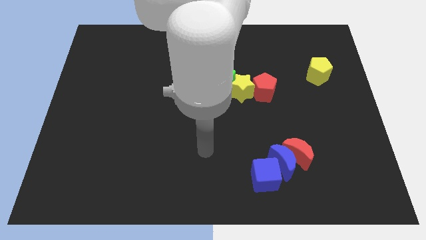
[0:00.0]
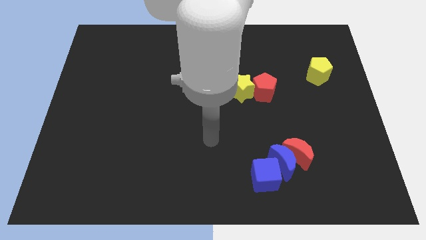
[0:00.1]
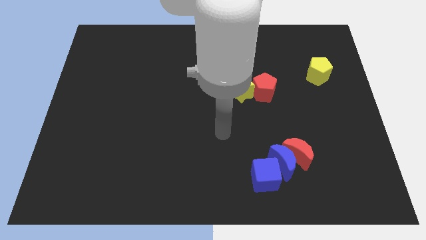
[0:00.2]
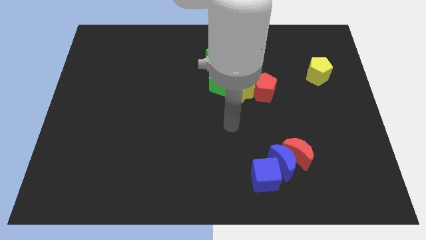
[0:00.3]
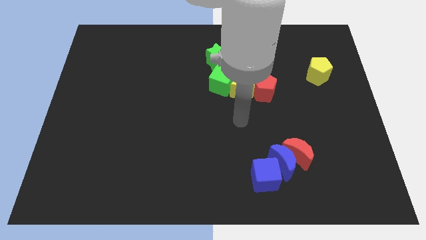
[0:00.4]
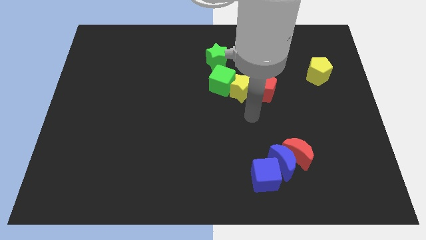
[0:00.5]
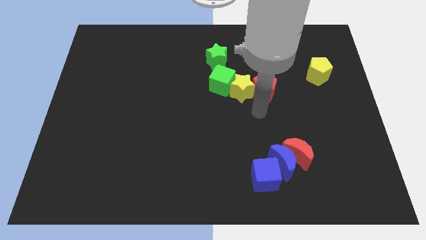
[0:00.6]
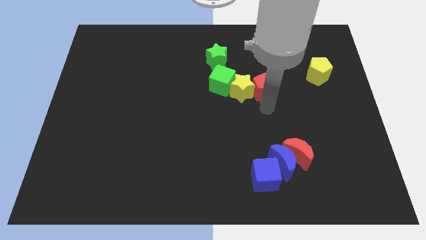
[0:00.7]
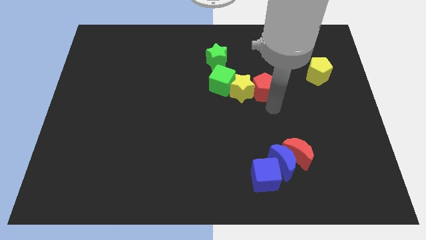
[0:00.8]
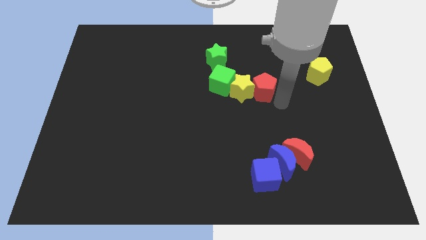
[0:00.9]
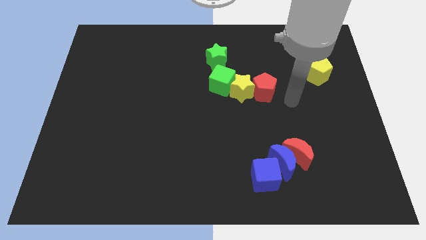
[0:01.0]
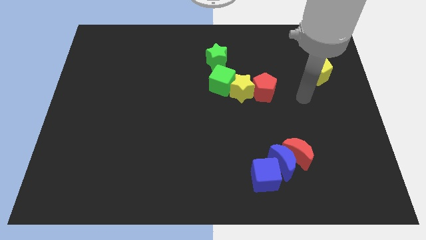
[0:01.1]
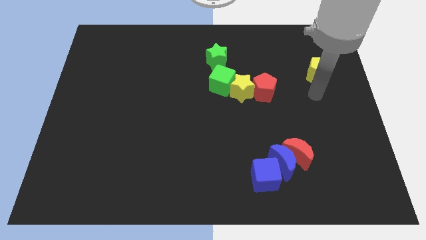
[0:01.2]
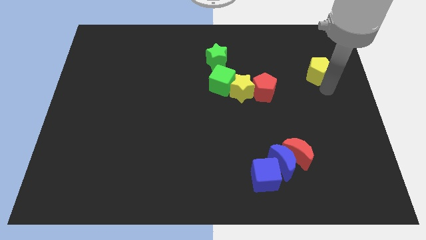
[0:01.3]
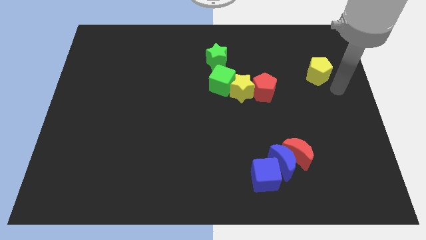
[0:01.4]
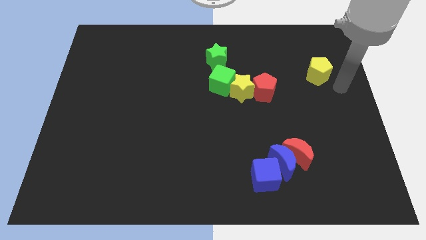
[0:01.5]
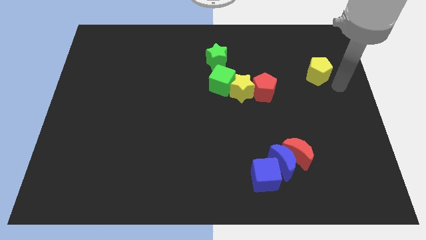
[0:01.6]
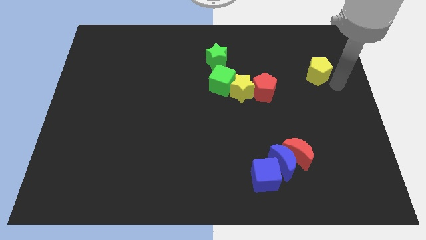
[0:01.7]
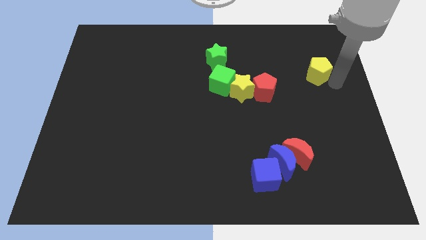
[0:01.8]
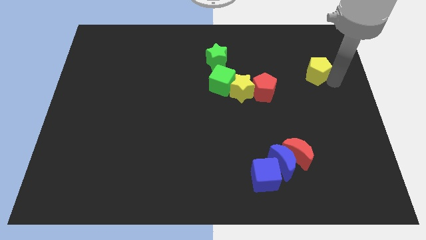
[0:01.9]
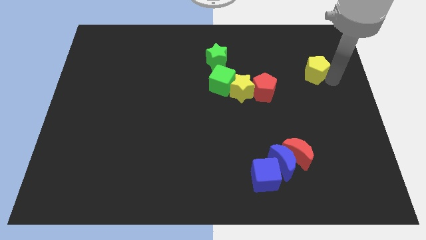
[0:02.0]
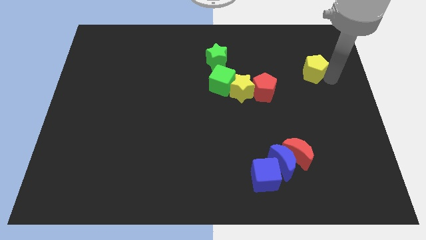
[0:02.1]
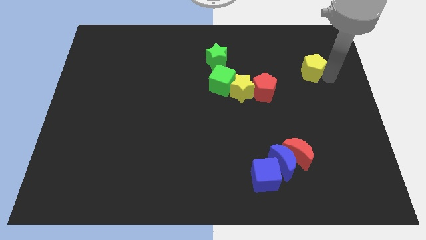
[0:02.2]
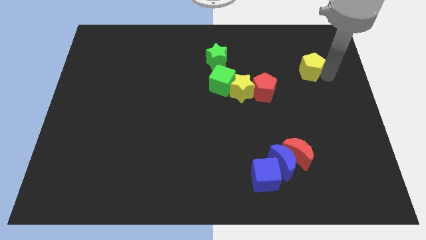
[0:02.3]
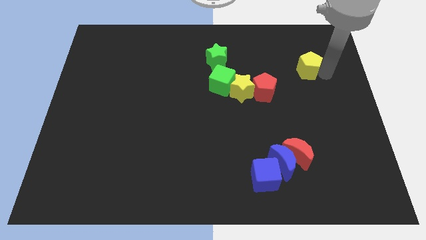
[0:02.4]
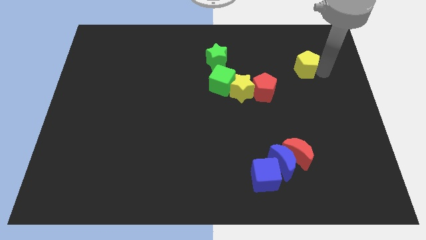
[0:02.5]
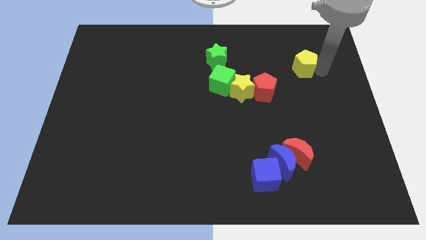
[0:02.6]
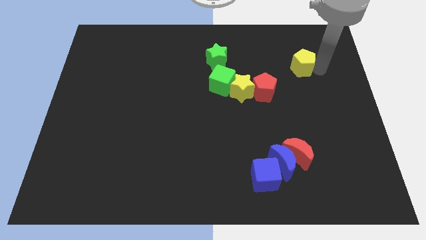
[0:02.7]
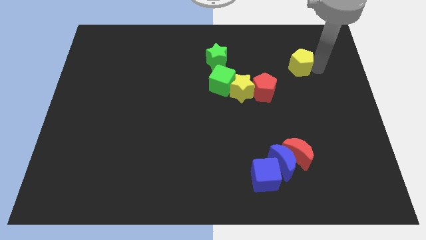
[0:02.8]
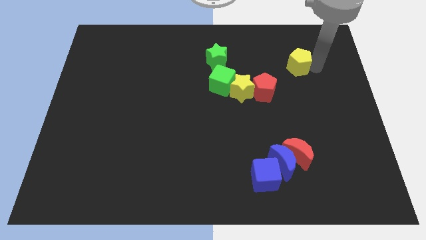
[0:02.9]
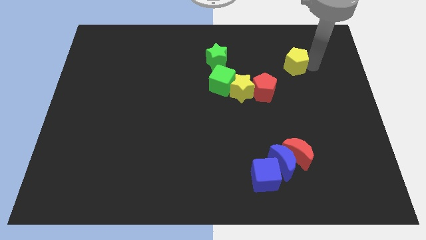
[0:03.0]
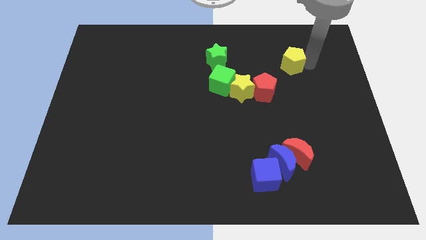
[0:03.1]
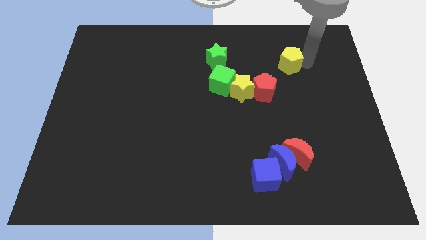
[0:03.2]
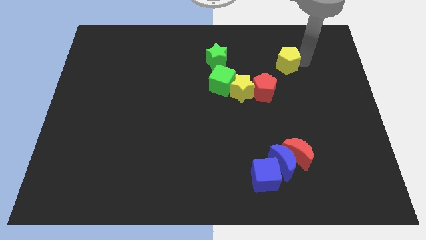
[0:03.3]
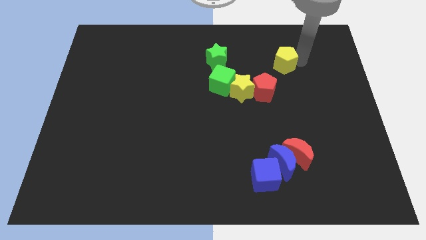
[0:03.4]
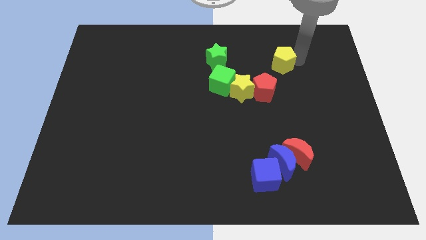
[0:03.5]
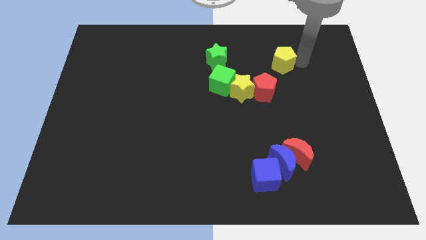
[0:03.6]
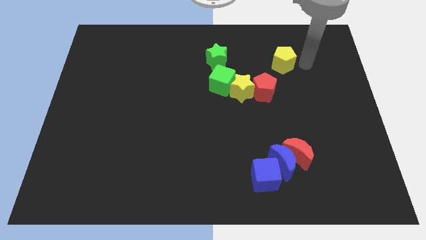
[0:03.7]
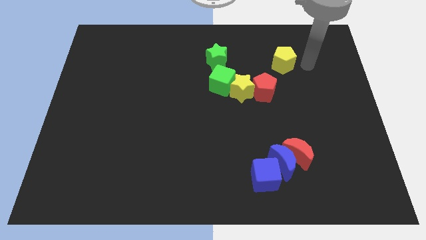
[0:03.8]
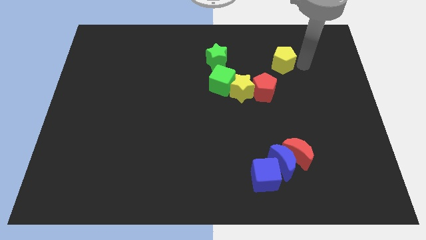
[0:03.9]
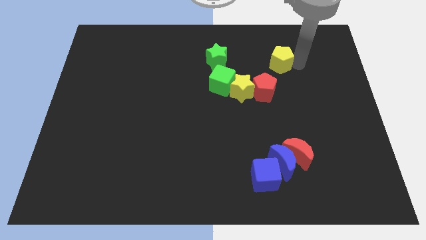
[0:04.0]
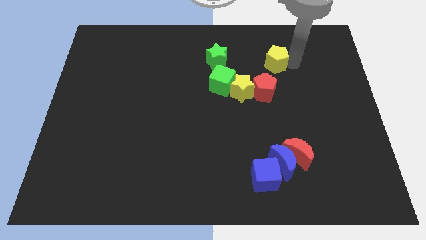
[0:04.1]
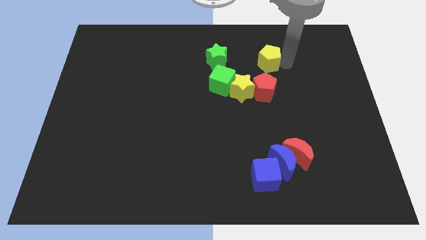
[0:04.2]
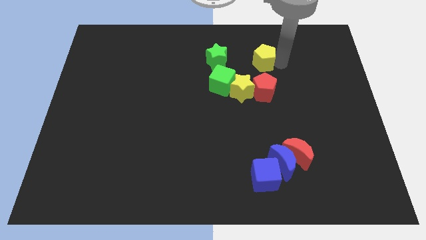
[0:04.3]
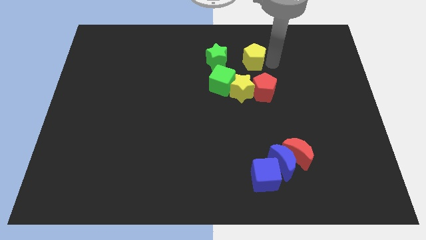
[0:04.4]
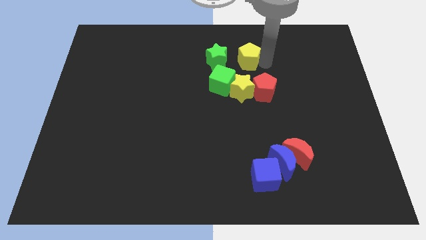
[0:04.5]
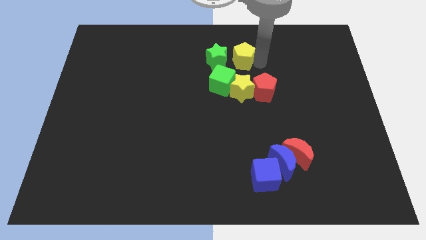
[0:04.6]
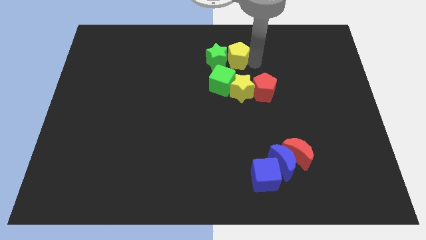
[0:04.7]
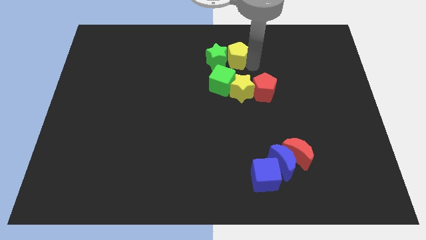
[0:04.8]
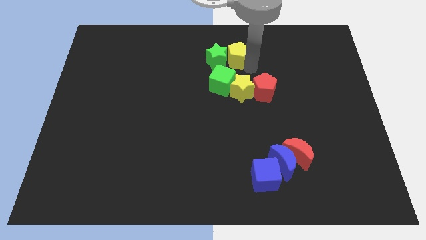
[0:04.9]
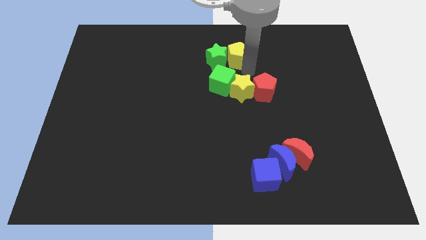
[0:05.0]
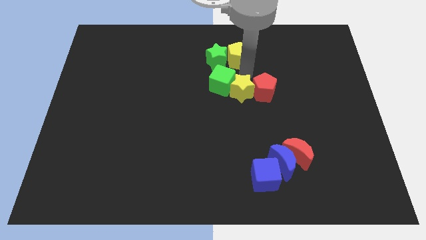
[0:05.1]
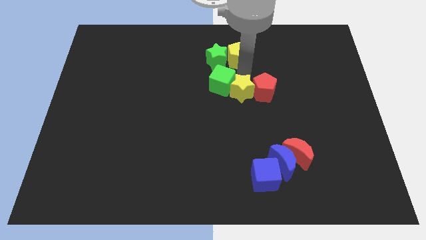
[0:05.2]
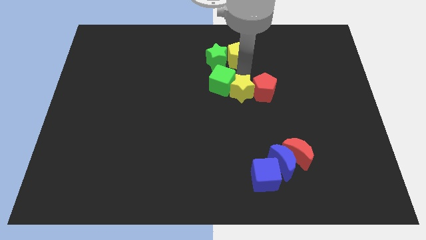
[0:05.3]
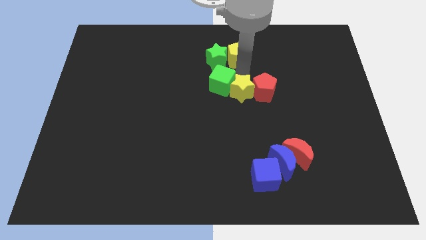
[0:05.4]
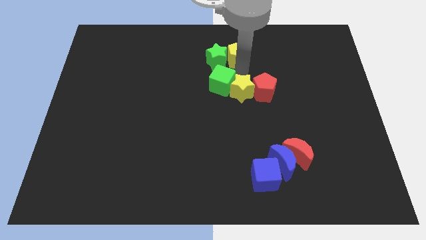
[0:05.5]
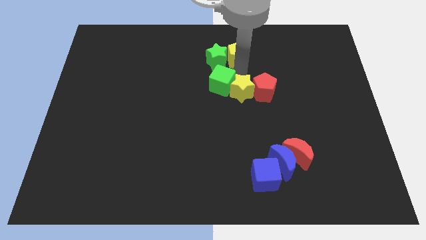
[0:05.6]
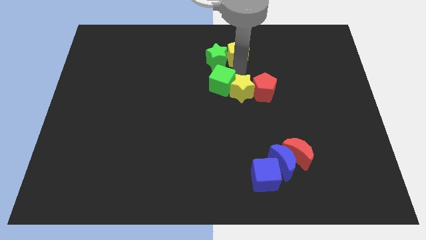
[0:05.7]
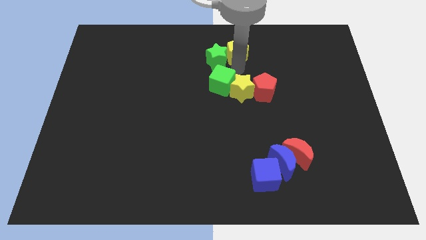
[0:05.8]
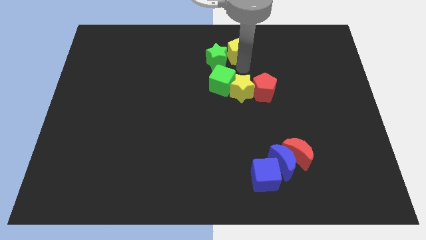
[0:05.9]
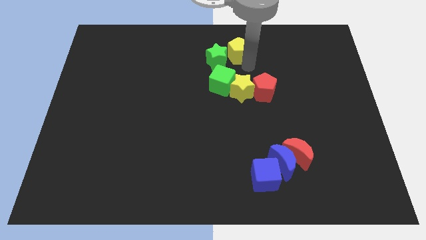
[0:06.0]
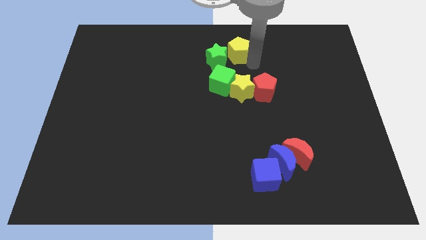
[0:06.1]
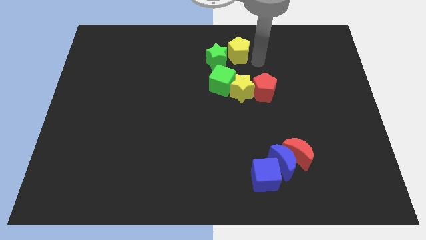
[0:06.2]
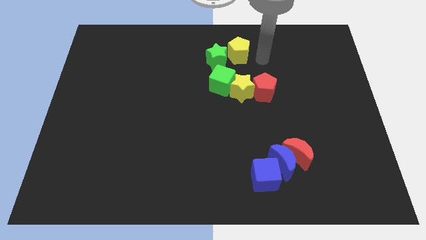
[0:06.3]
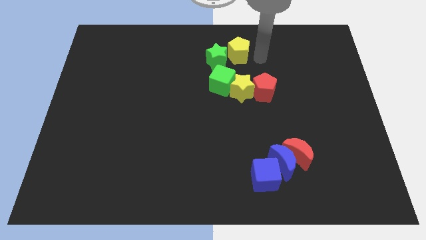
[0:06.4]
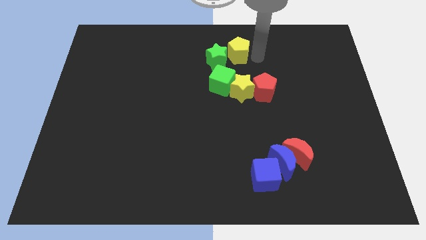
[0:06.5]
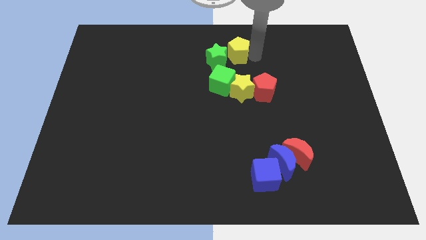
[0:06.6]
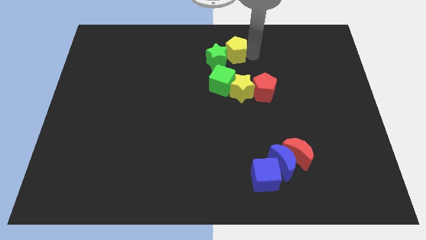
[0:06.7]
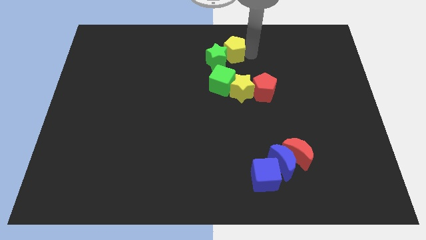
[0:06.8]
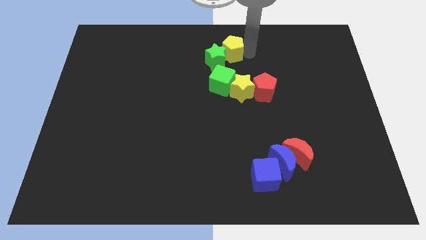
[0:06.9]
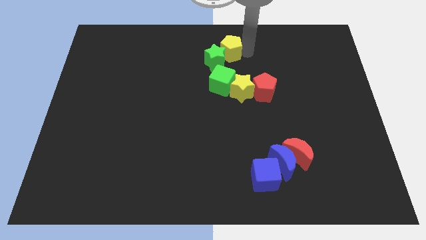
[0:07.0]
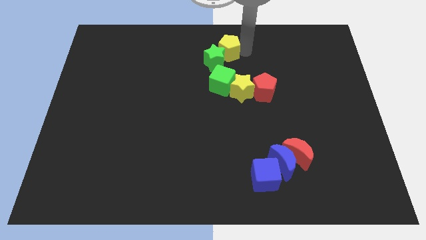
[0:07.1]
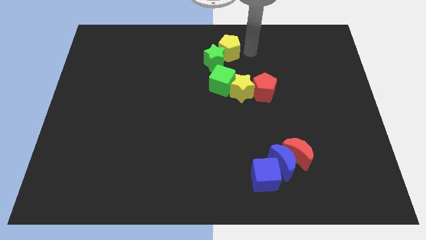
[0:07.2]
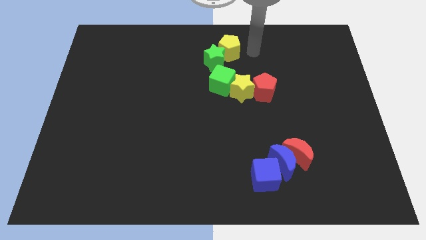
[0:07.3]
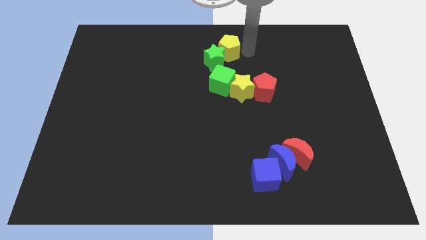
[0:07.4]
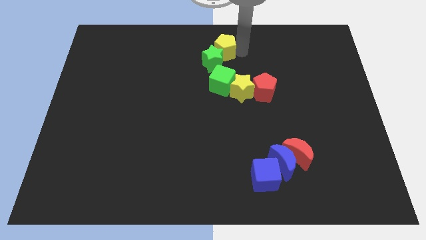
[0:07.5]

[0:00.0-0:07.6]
push the yellow pentagon to the left

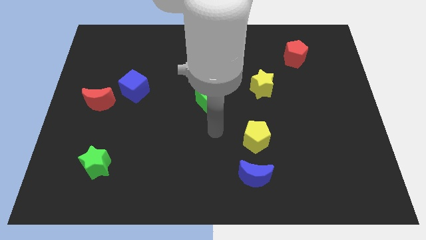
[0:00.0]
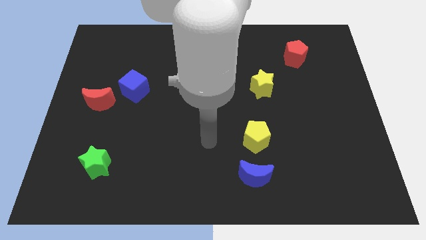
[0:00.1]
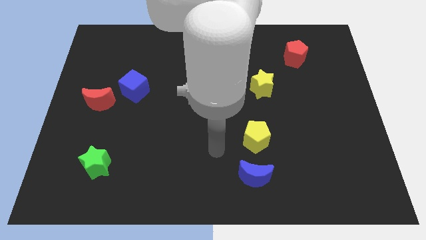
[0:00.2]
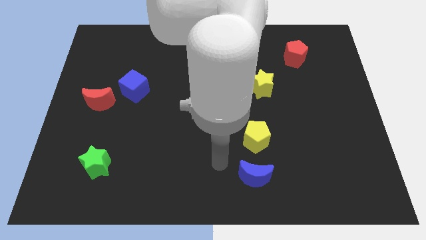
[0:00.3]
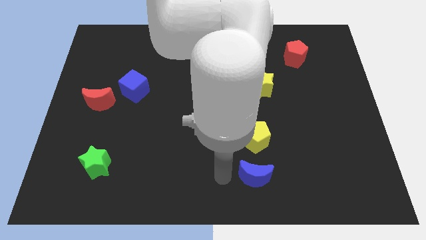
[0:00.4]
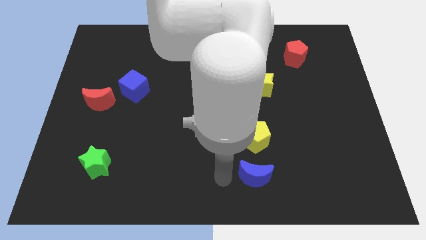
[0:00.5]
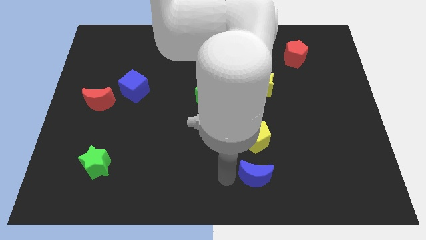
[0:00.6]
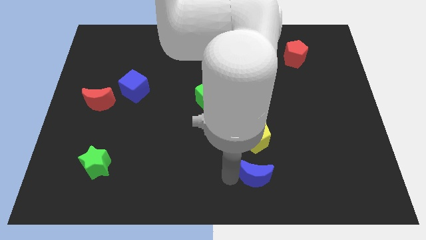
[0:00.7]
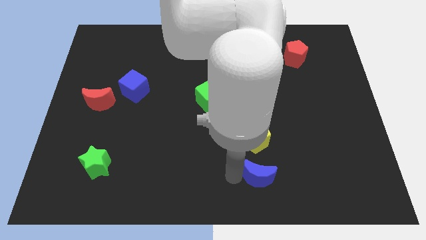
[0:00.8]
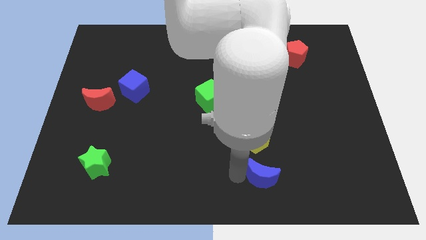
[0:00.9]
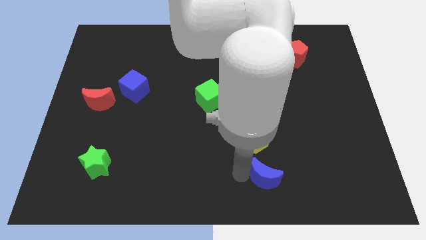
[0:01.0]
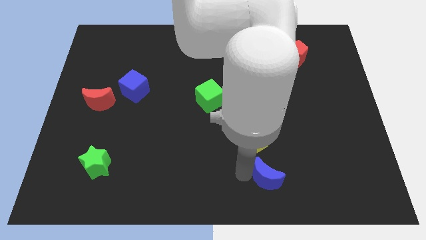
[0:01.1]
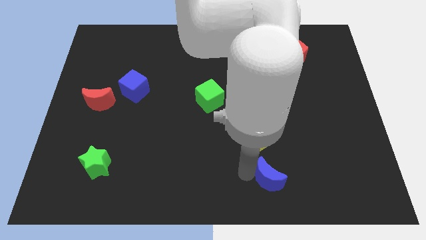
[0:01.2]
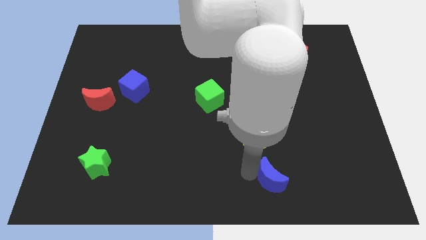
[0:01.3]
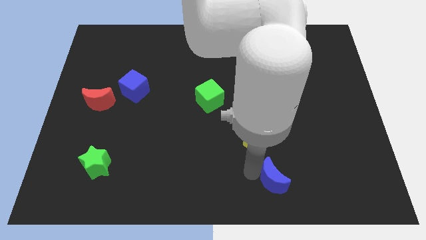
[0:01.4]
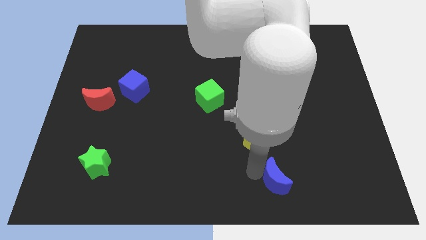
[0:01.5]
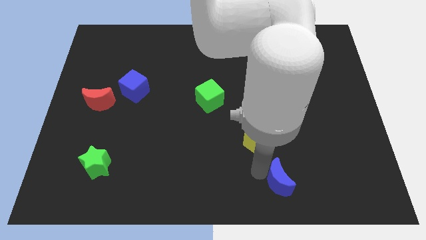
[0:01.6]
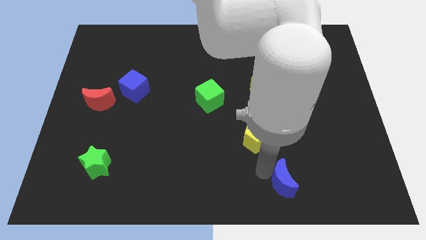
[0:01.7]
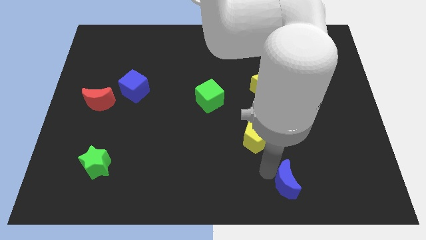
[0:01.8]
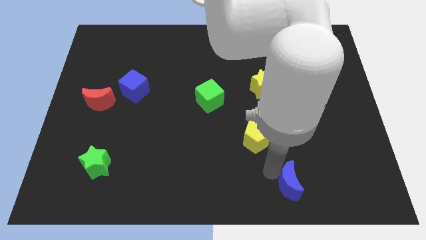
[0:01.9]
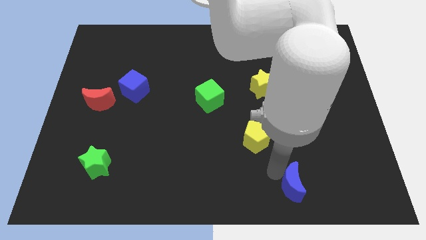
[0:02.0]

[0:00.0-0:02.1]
move the blue moon a little right
